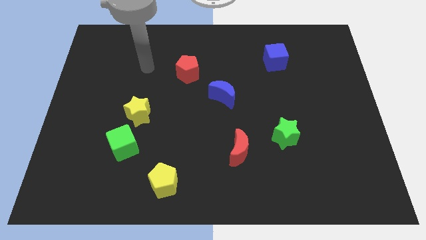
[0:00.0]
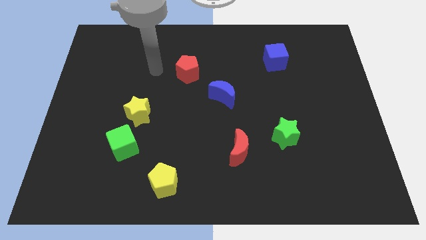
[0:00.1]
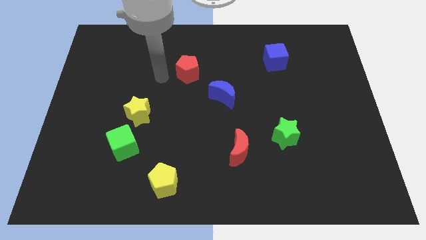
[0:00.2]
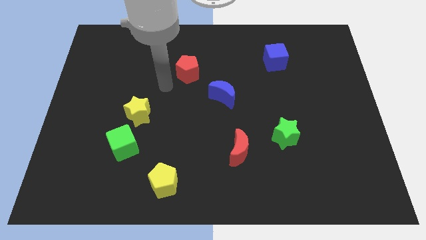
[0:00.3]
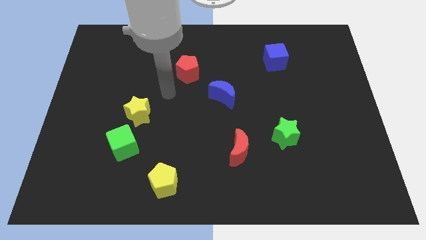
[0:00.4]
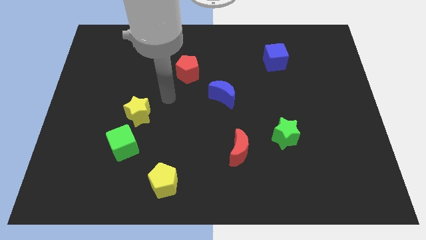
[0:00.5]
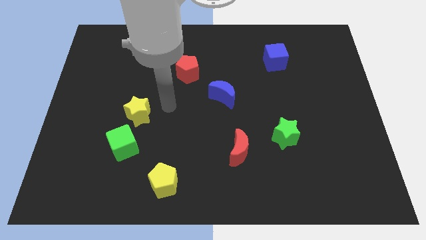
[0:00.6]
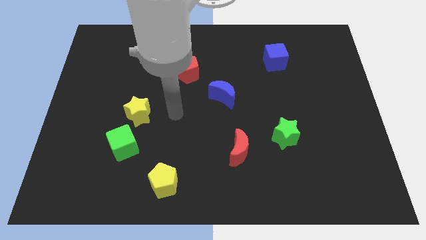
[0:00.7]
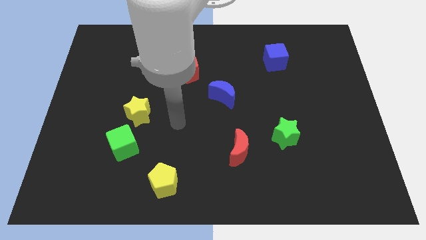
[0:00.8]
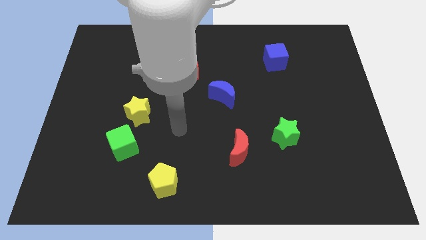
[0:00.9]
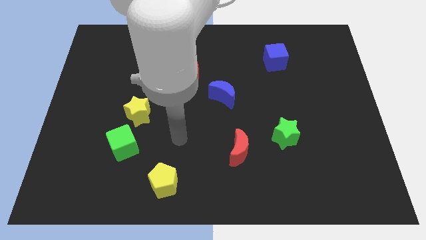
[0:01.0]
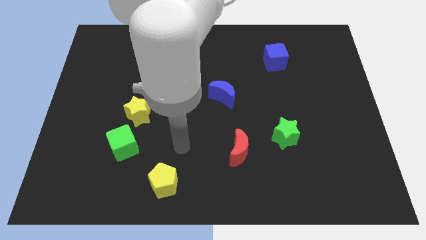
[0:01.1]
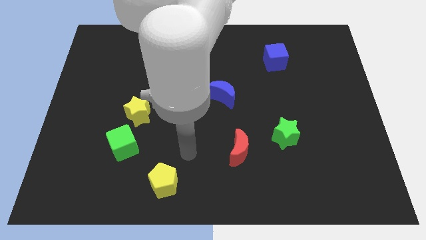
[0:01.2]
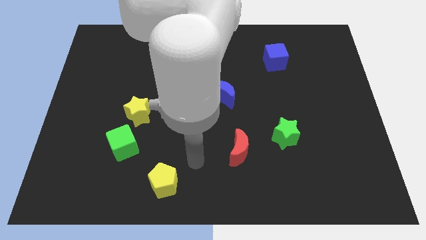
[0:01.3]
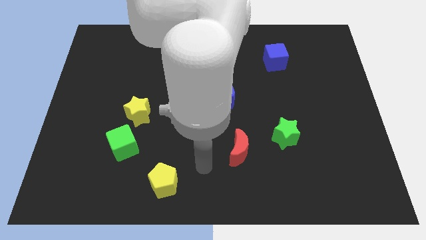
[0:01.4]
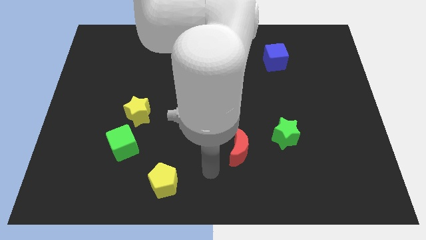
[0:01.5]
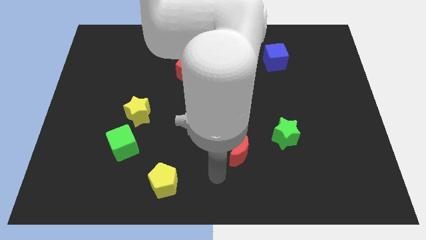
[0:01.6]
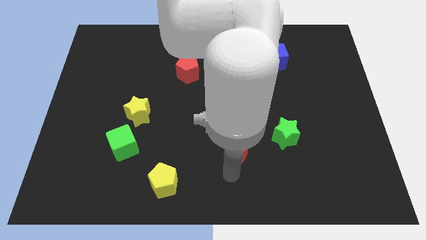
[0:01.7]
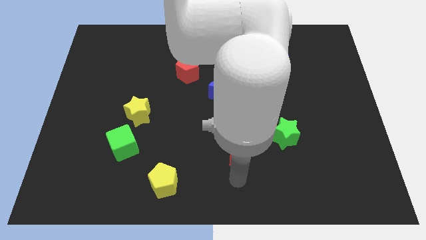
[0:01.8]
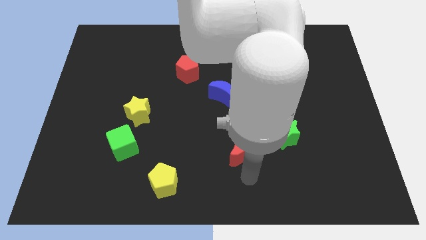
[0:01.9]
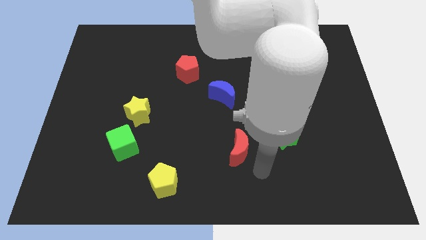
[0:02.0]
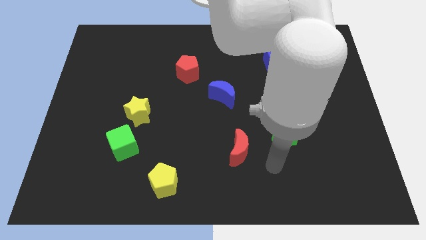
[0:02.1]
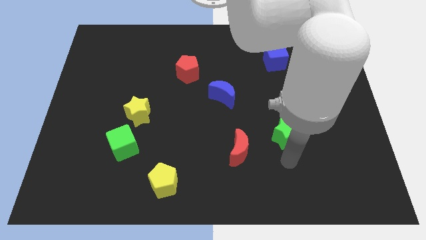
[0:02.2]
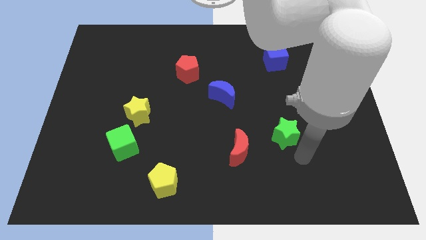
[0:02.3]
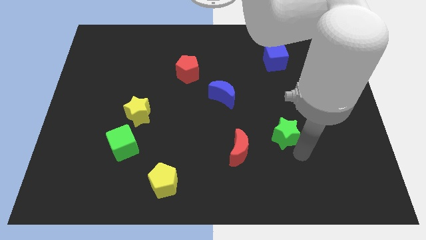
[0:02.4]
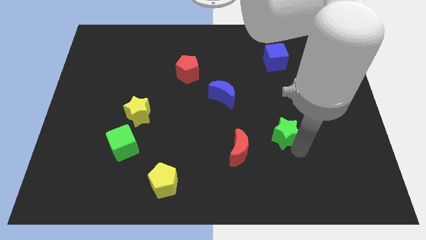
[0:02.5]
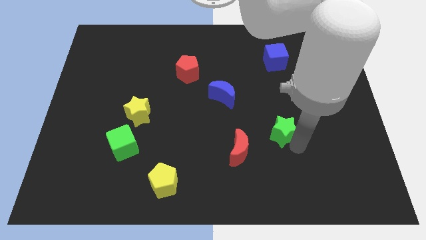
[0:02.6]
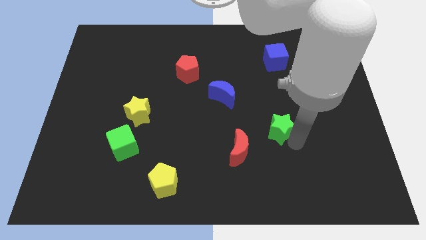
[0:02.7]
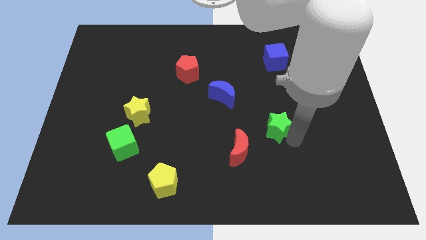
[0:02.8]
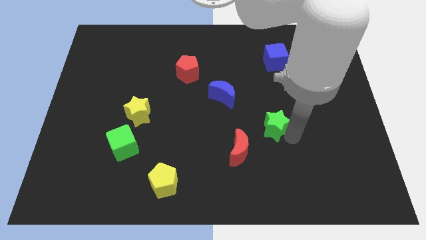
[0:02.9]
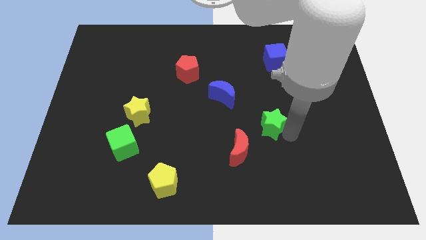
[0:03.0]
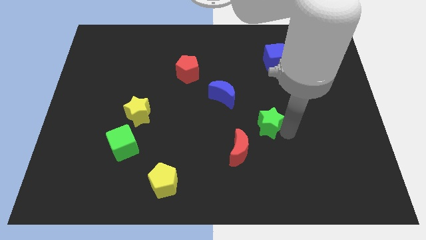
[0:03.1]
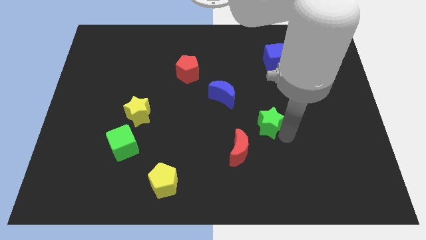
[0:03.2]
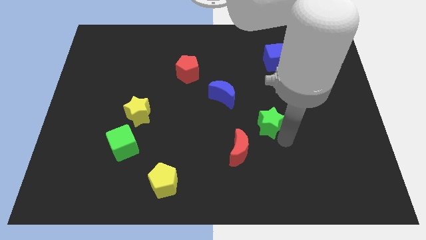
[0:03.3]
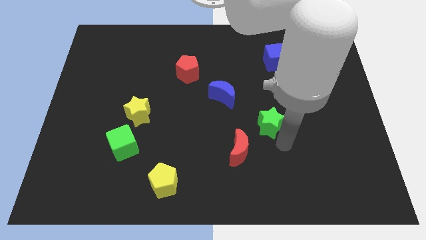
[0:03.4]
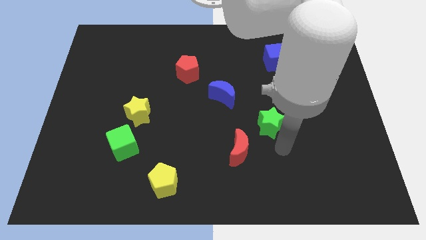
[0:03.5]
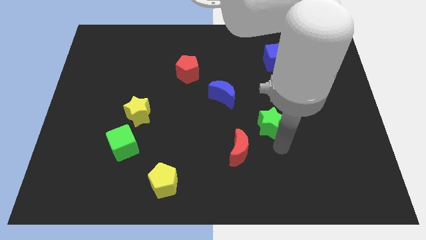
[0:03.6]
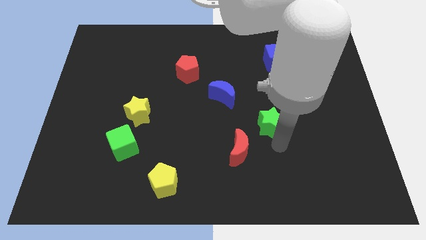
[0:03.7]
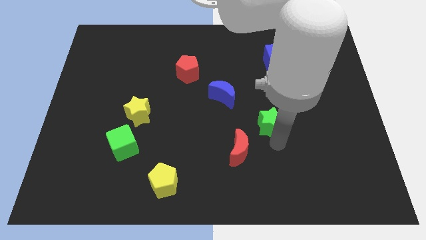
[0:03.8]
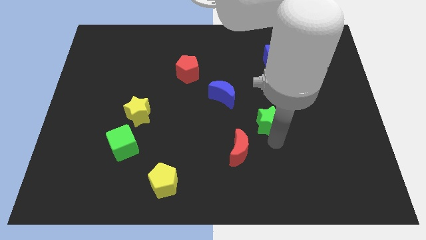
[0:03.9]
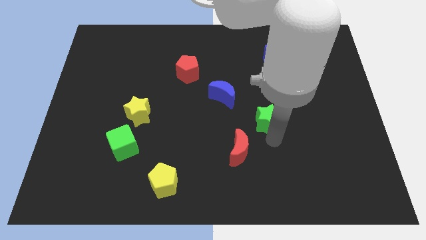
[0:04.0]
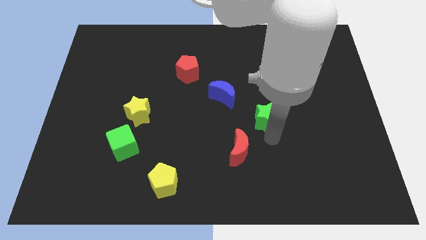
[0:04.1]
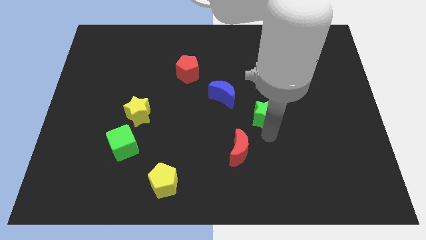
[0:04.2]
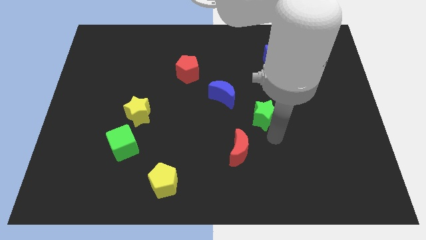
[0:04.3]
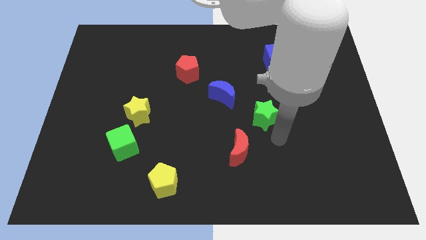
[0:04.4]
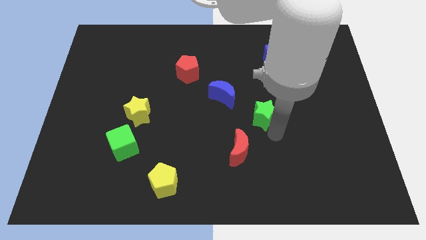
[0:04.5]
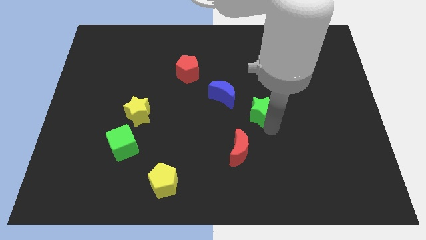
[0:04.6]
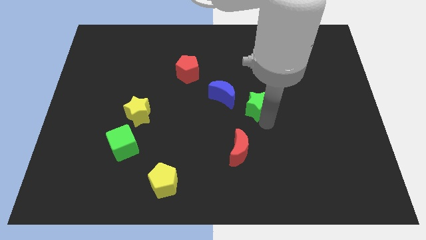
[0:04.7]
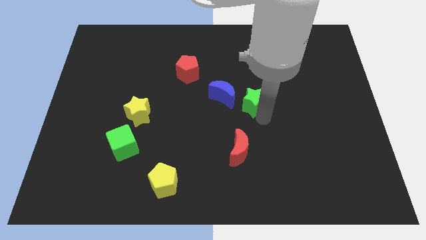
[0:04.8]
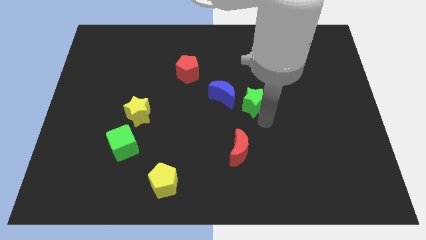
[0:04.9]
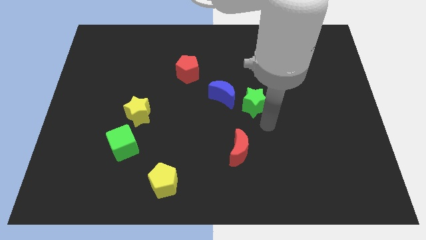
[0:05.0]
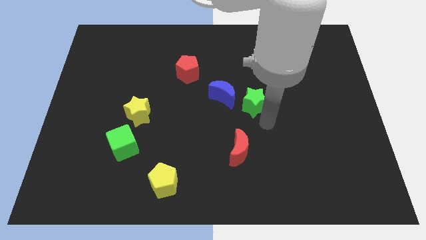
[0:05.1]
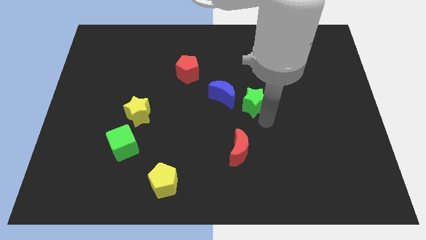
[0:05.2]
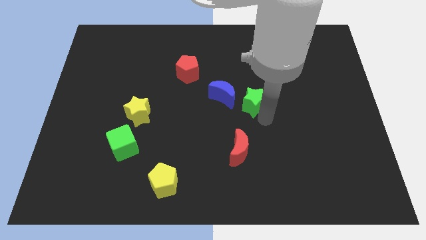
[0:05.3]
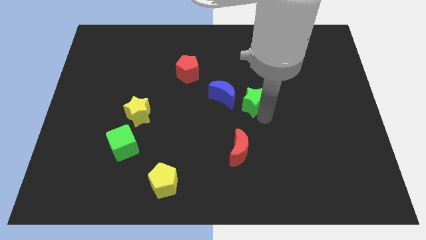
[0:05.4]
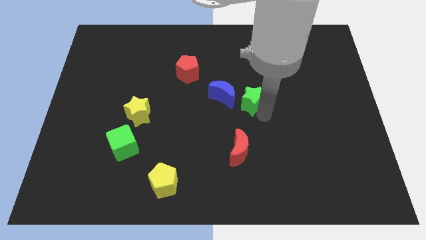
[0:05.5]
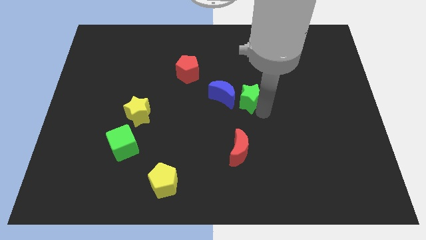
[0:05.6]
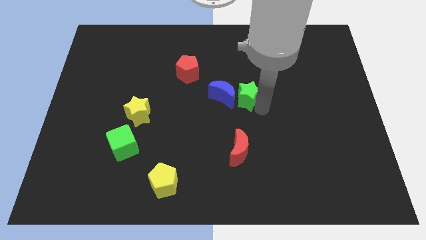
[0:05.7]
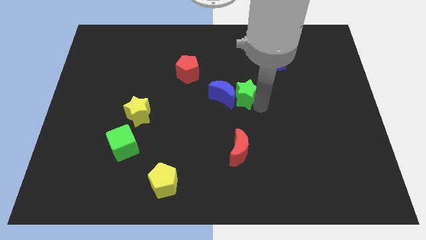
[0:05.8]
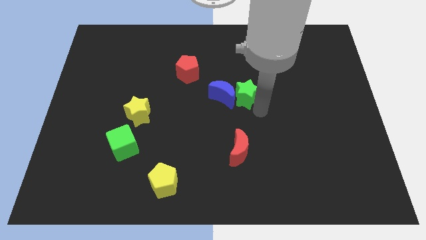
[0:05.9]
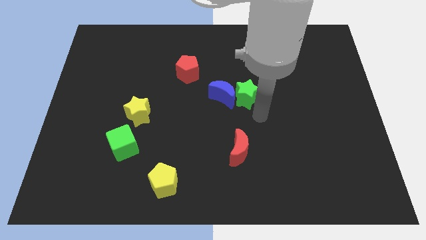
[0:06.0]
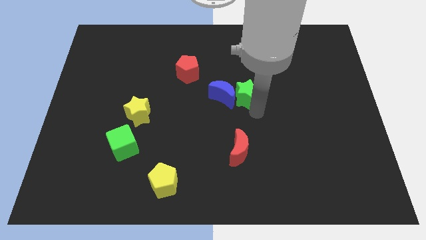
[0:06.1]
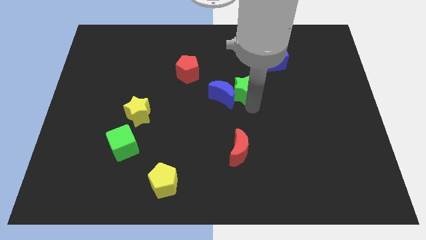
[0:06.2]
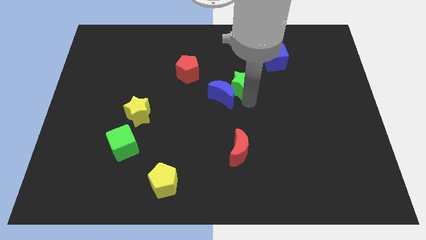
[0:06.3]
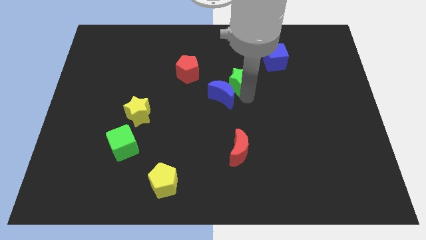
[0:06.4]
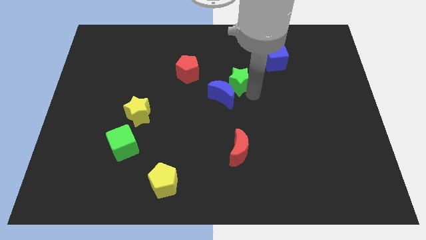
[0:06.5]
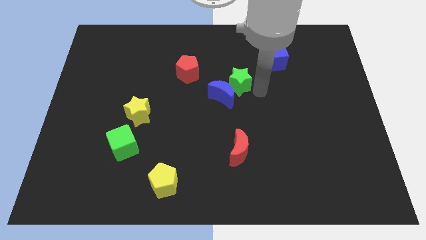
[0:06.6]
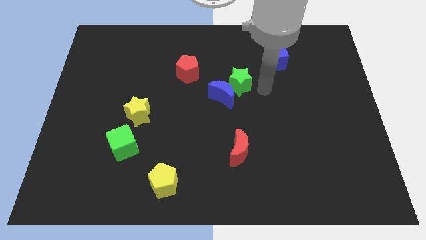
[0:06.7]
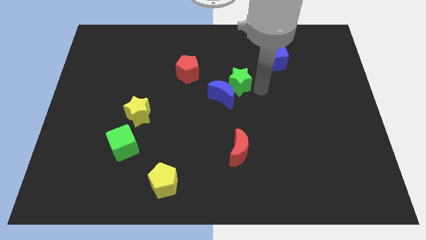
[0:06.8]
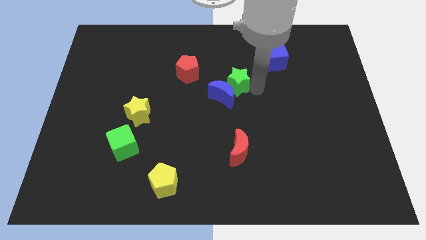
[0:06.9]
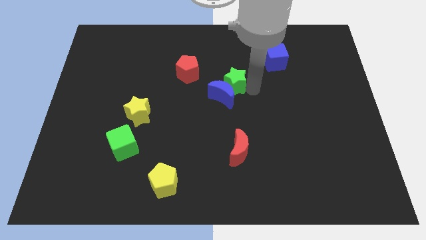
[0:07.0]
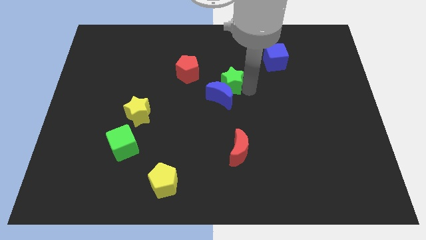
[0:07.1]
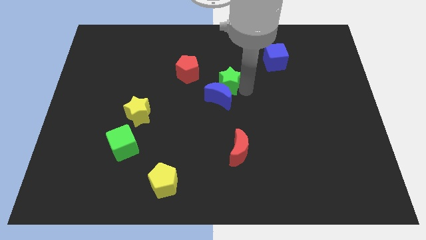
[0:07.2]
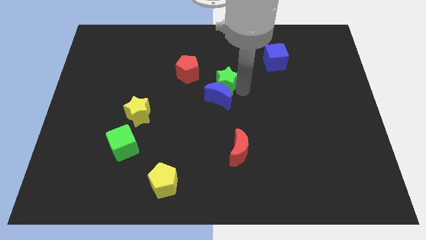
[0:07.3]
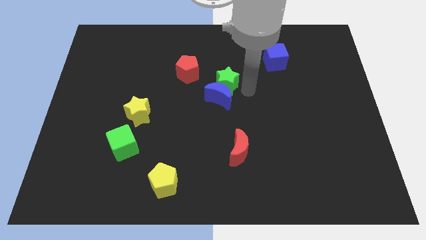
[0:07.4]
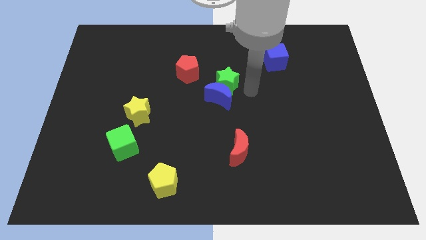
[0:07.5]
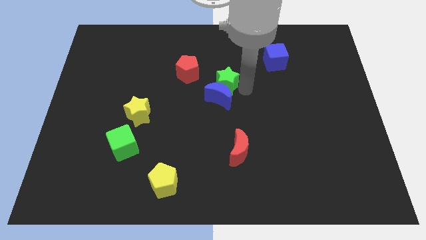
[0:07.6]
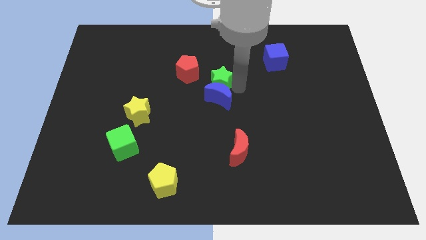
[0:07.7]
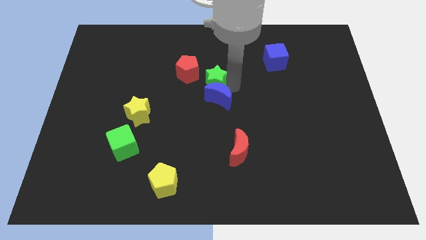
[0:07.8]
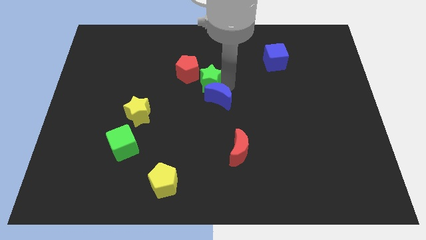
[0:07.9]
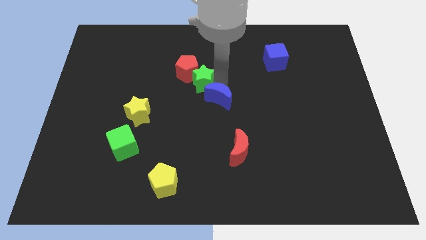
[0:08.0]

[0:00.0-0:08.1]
slide the green star to the red pentagon
